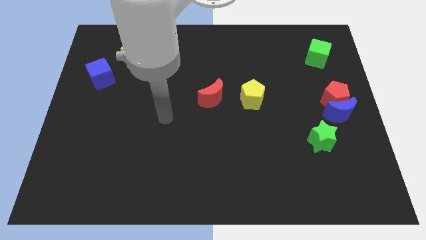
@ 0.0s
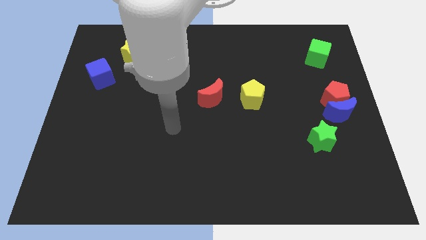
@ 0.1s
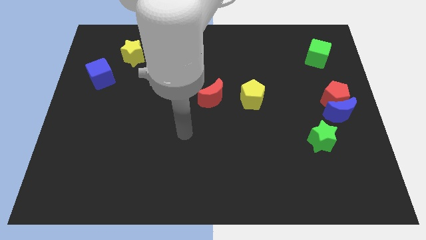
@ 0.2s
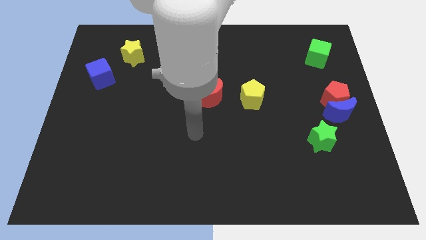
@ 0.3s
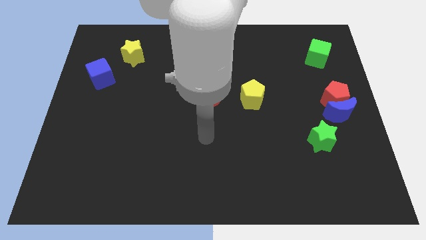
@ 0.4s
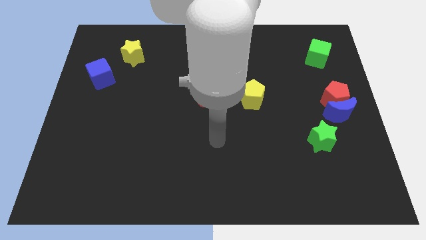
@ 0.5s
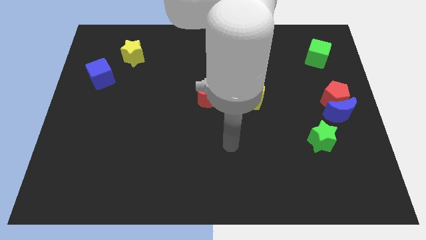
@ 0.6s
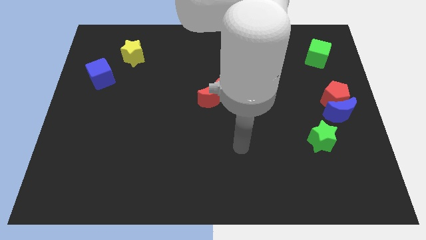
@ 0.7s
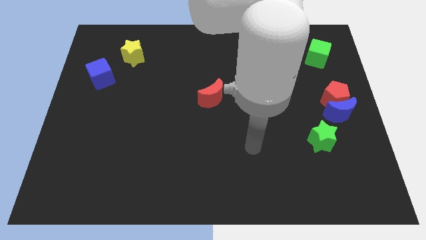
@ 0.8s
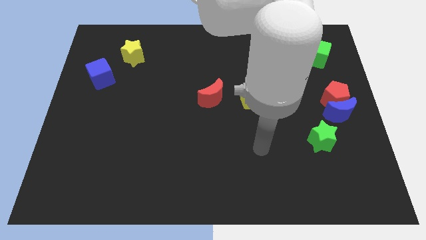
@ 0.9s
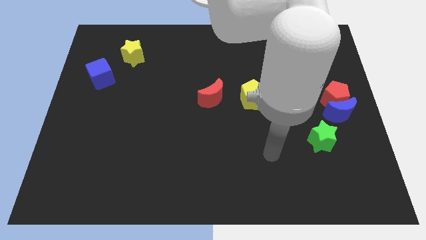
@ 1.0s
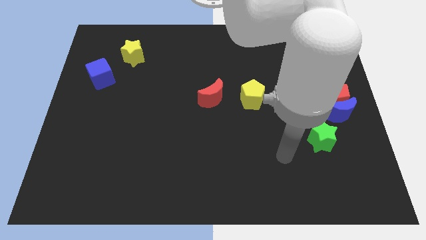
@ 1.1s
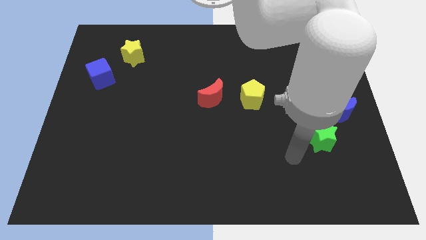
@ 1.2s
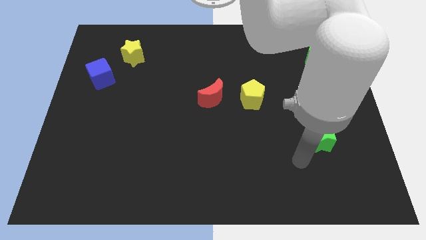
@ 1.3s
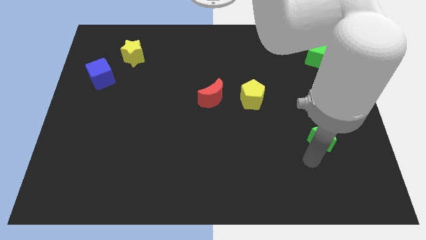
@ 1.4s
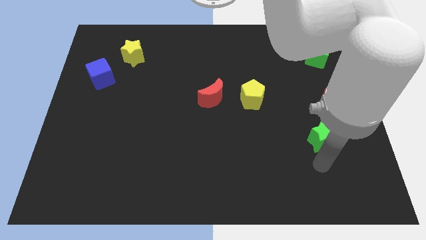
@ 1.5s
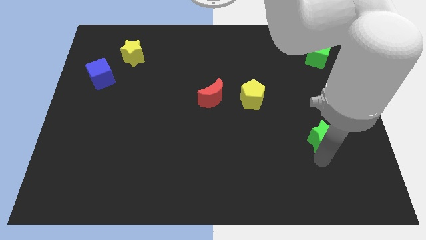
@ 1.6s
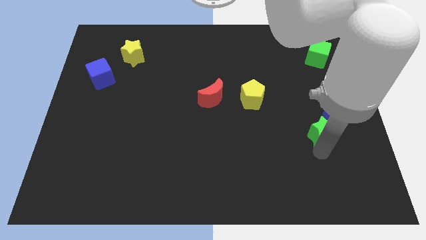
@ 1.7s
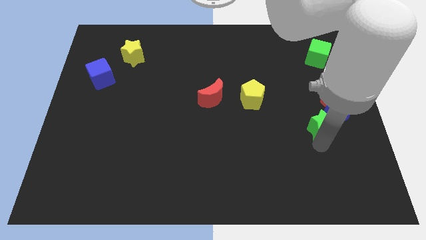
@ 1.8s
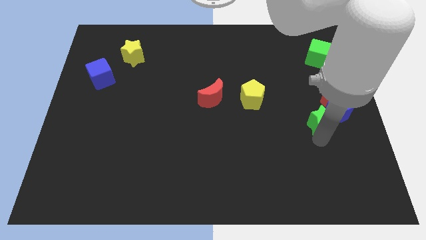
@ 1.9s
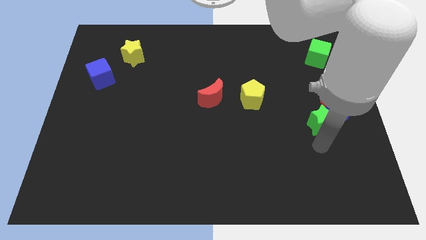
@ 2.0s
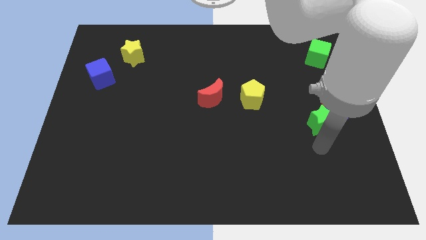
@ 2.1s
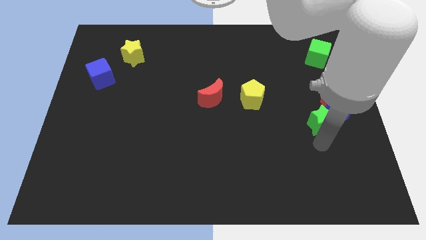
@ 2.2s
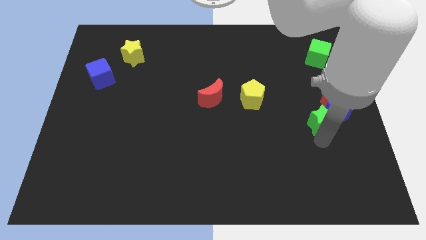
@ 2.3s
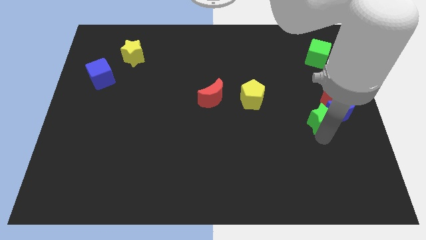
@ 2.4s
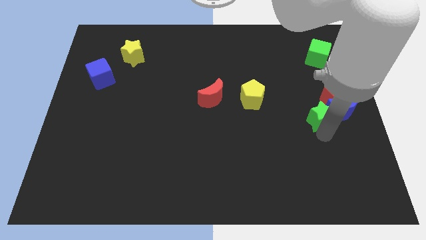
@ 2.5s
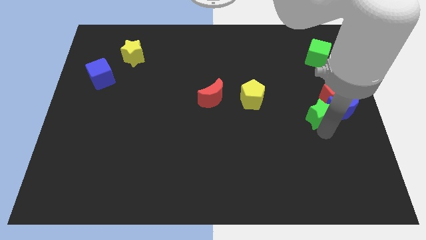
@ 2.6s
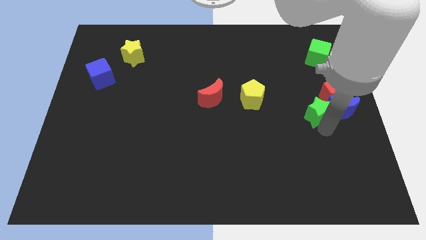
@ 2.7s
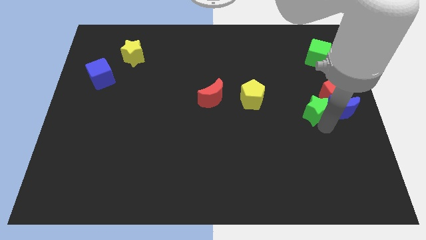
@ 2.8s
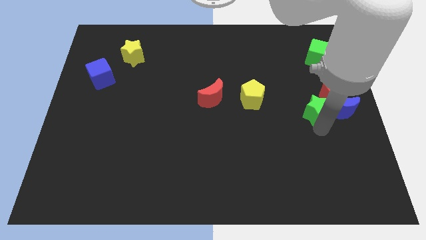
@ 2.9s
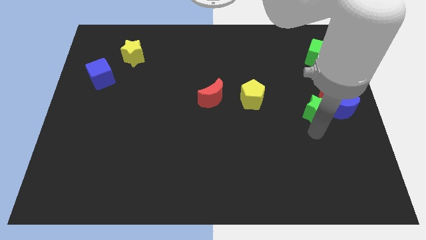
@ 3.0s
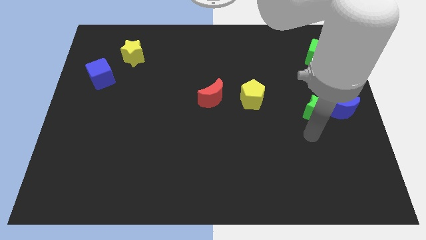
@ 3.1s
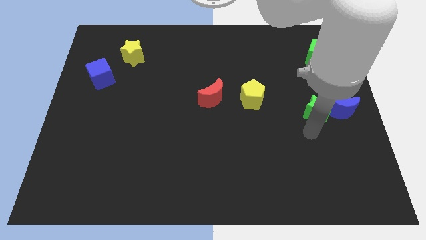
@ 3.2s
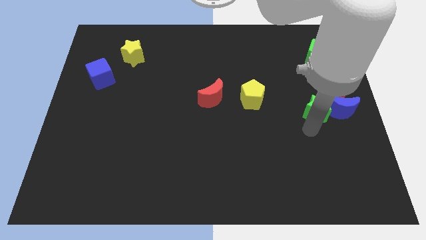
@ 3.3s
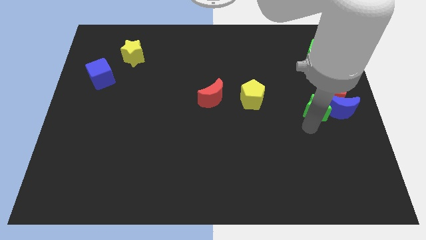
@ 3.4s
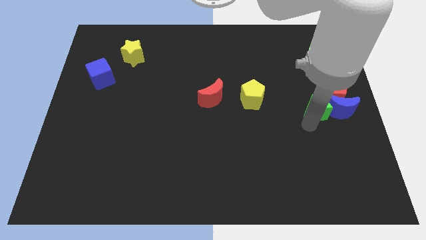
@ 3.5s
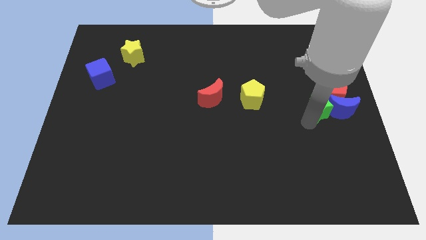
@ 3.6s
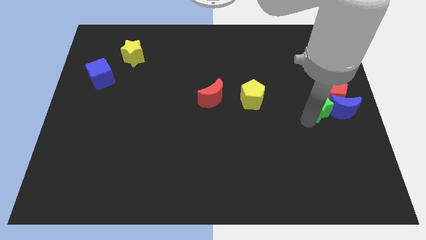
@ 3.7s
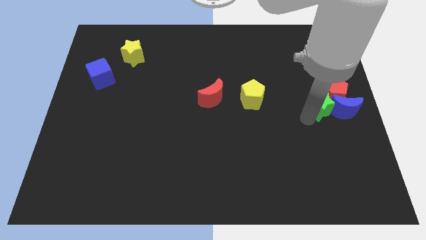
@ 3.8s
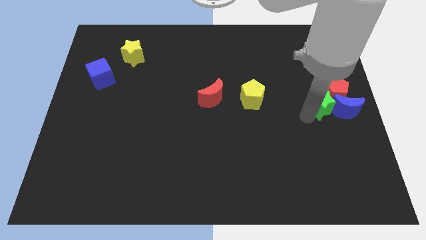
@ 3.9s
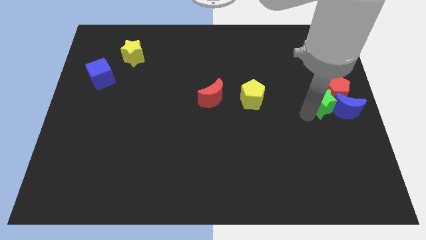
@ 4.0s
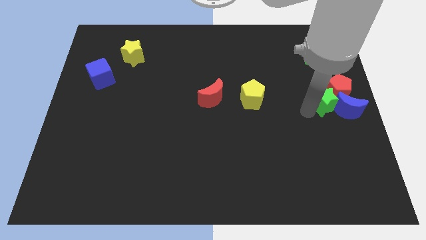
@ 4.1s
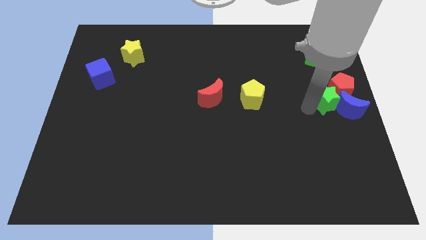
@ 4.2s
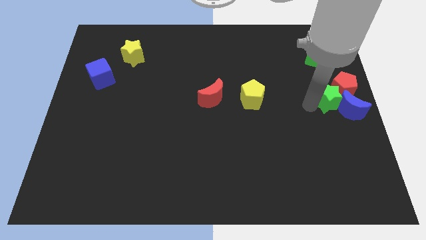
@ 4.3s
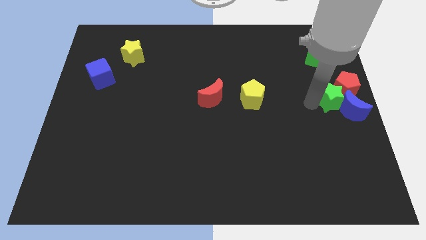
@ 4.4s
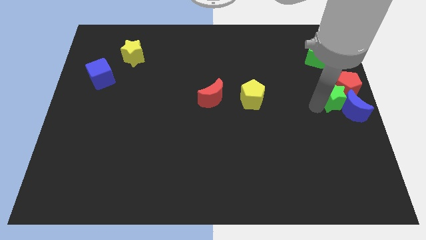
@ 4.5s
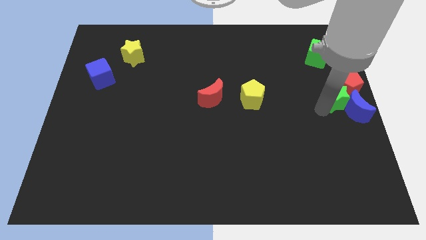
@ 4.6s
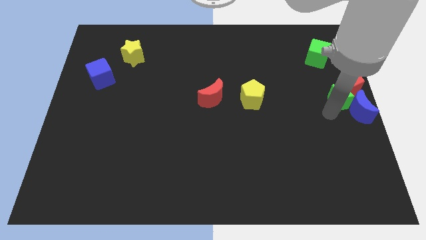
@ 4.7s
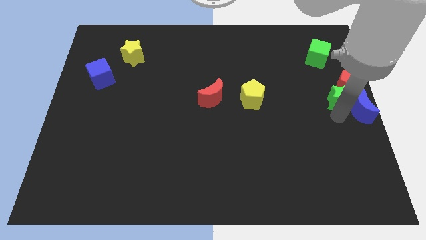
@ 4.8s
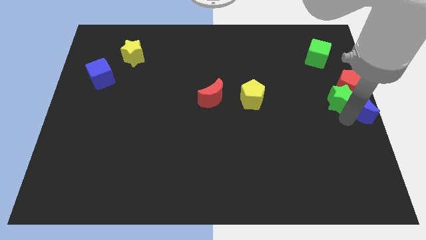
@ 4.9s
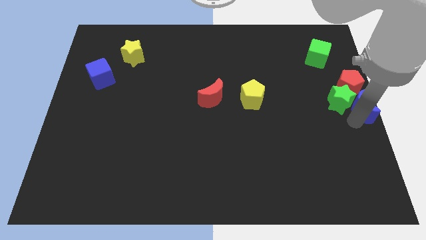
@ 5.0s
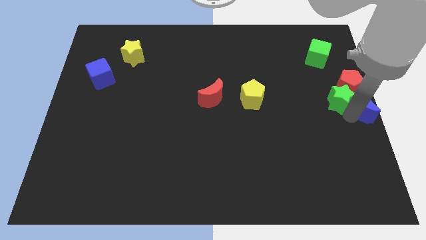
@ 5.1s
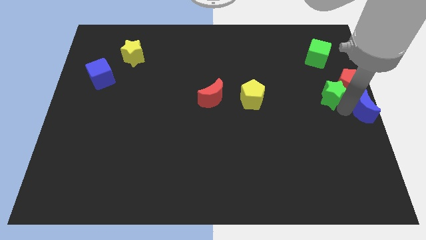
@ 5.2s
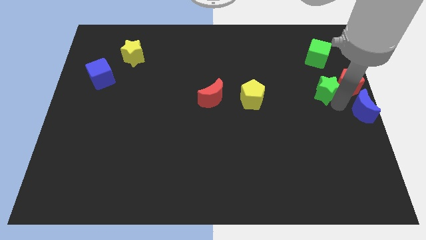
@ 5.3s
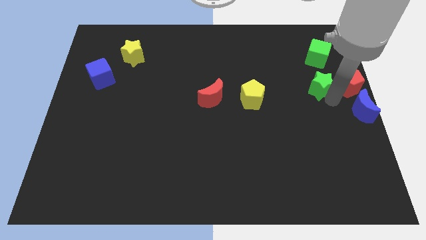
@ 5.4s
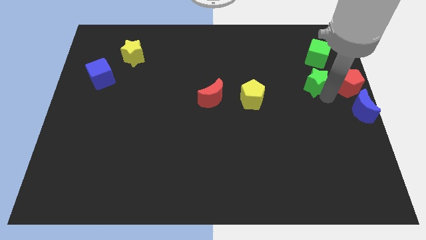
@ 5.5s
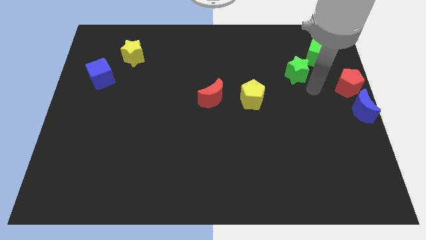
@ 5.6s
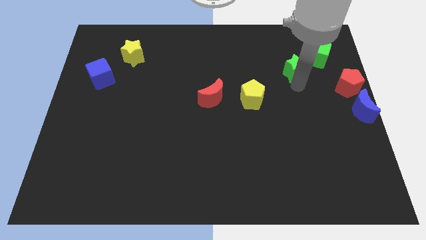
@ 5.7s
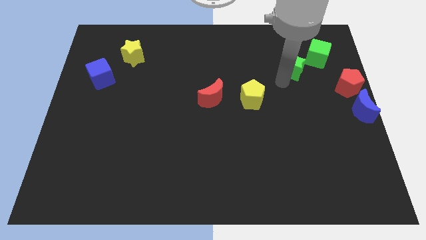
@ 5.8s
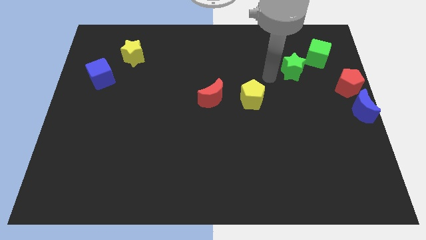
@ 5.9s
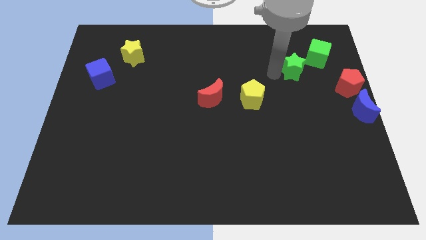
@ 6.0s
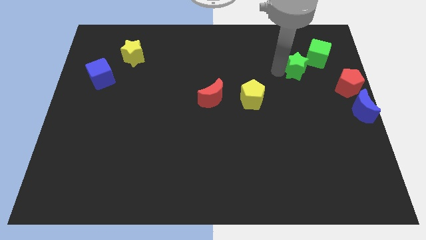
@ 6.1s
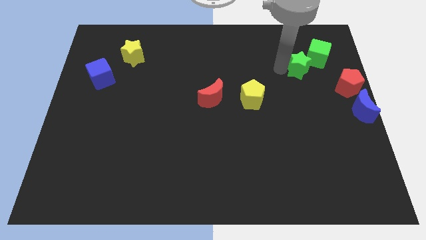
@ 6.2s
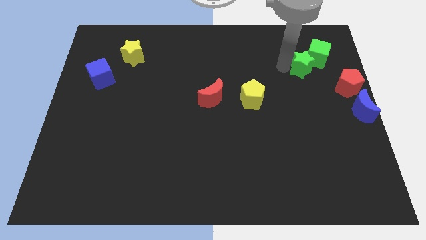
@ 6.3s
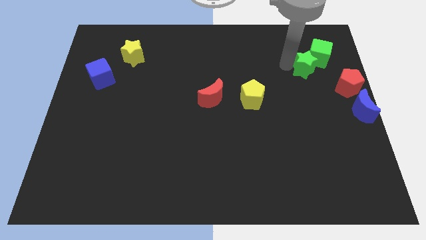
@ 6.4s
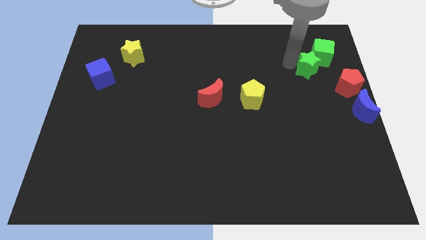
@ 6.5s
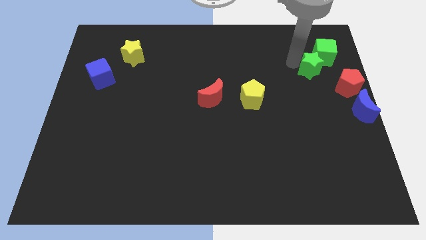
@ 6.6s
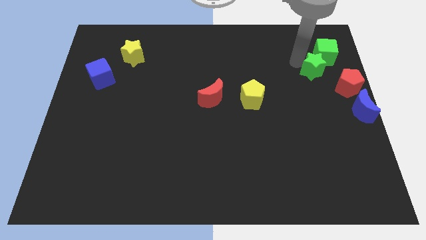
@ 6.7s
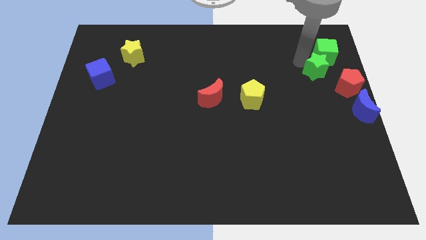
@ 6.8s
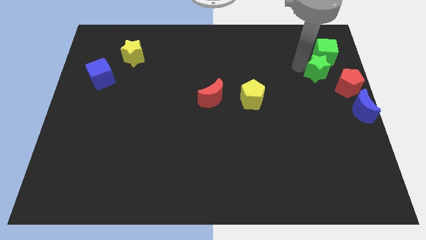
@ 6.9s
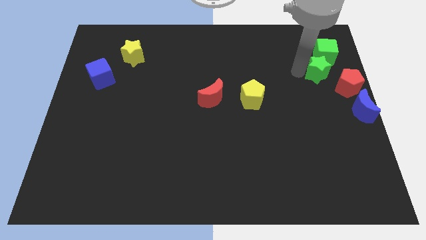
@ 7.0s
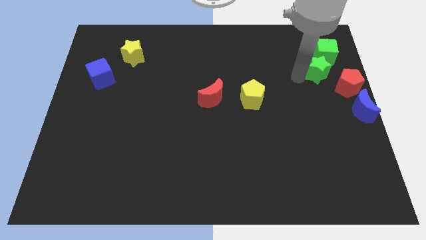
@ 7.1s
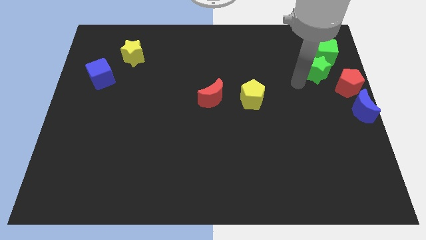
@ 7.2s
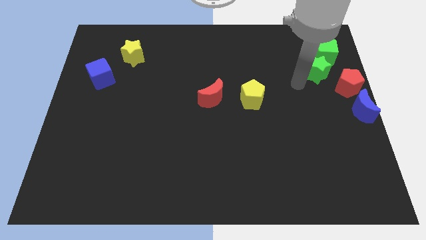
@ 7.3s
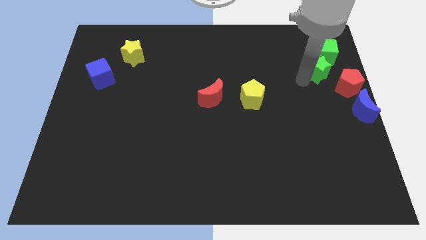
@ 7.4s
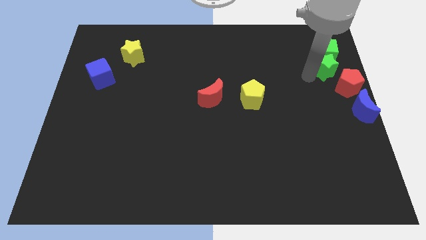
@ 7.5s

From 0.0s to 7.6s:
put the green star above the red pentagon

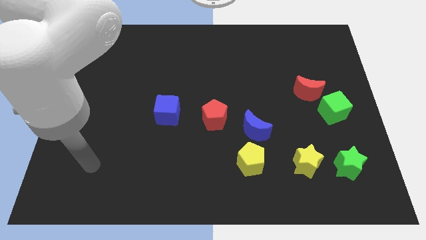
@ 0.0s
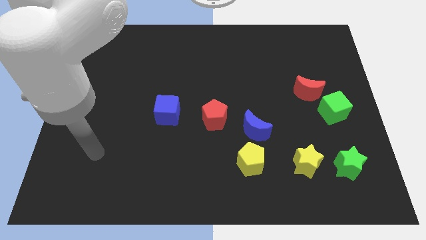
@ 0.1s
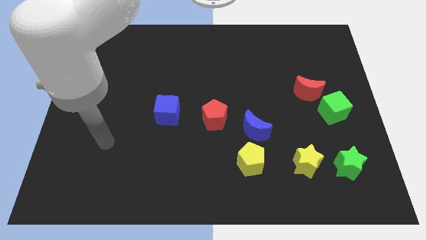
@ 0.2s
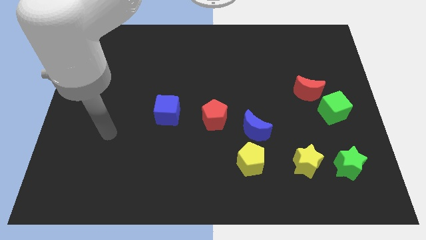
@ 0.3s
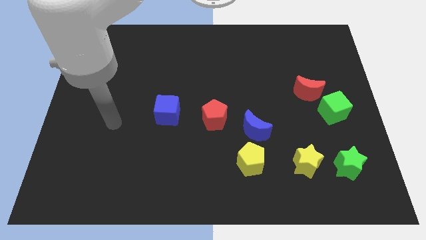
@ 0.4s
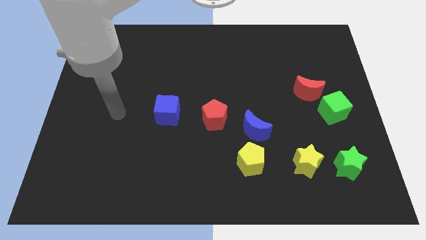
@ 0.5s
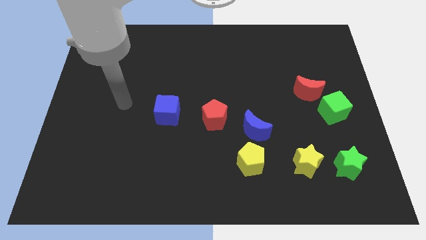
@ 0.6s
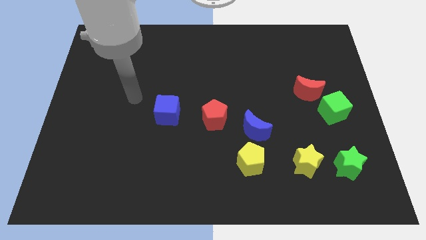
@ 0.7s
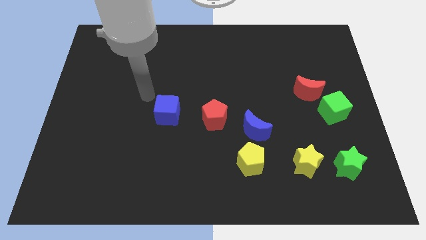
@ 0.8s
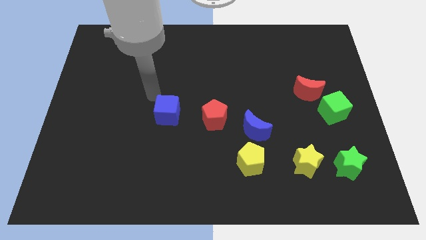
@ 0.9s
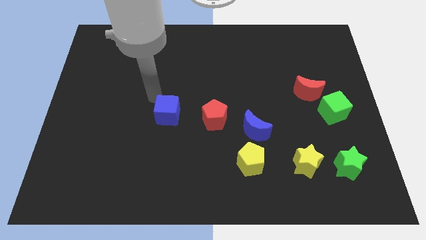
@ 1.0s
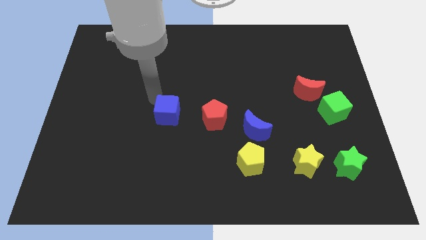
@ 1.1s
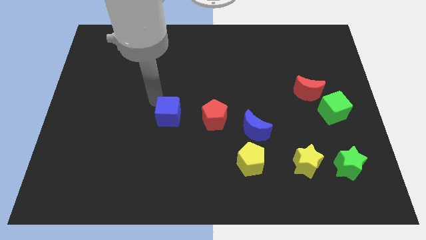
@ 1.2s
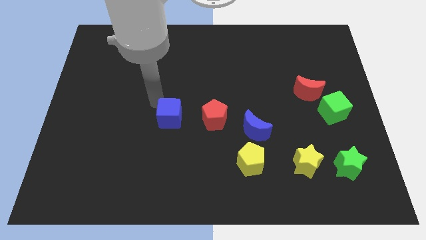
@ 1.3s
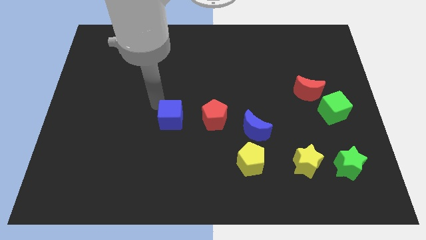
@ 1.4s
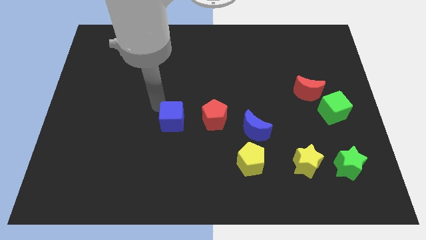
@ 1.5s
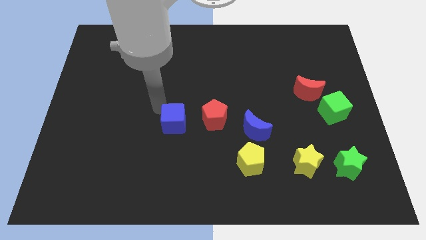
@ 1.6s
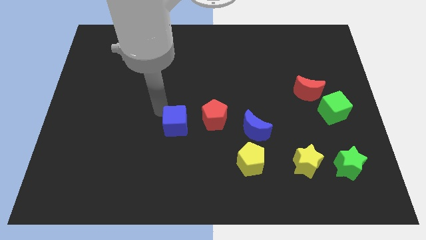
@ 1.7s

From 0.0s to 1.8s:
move the blue cube to the bottom left side of the red pentagon
